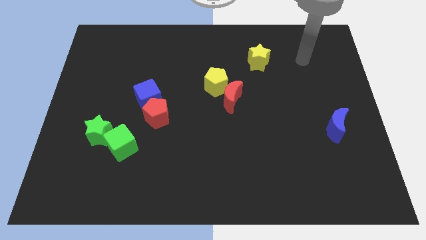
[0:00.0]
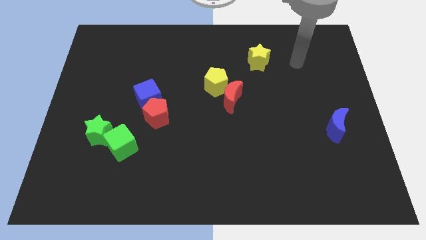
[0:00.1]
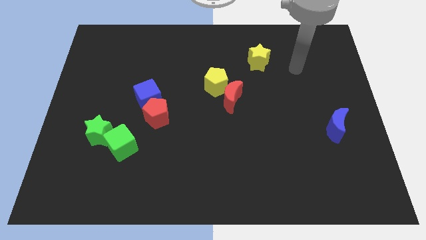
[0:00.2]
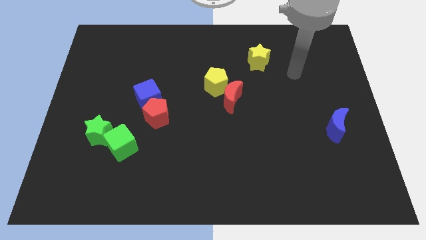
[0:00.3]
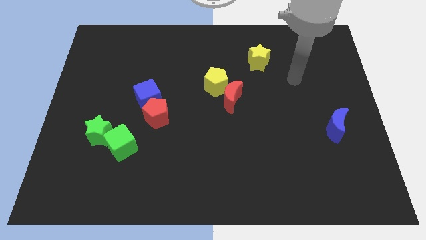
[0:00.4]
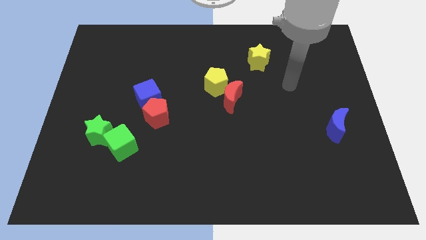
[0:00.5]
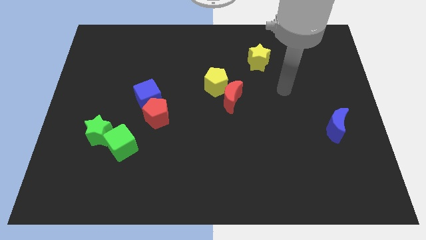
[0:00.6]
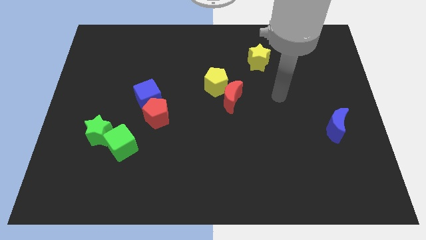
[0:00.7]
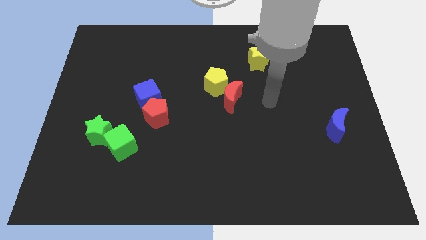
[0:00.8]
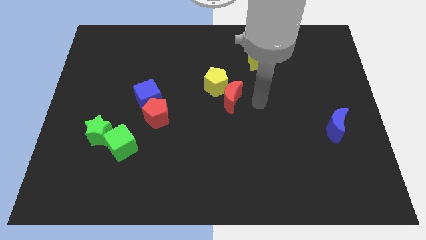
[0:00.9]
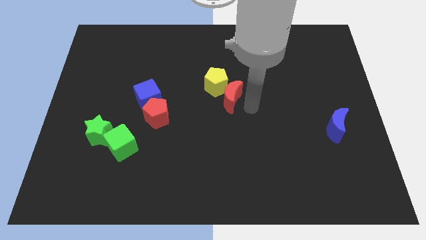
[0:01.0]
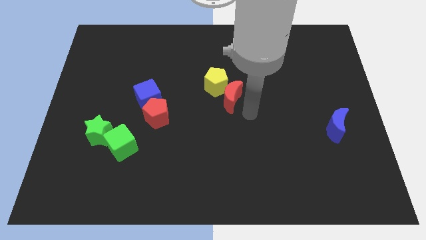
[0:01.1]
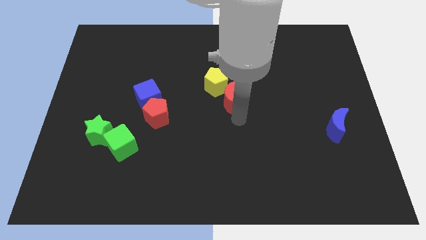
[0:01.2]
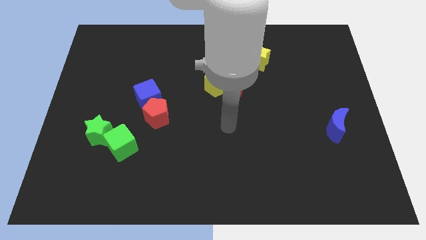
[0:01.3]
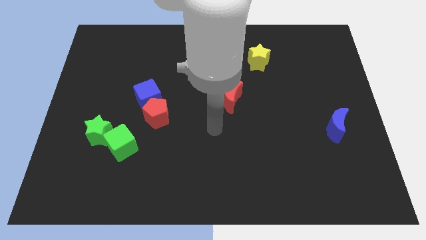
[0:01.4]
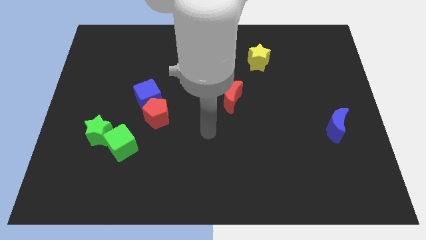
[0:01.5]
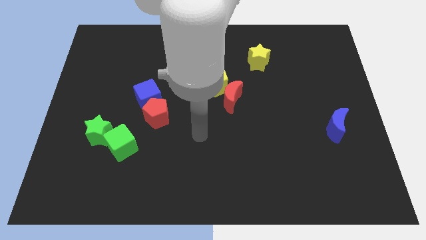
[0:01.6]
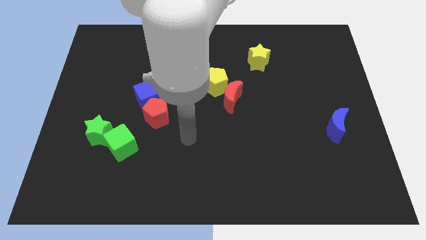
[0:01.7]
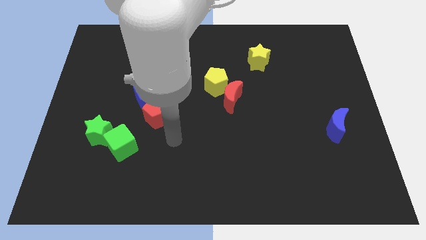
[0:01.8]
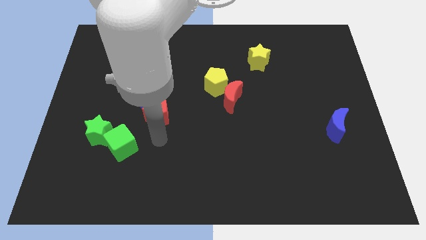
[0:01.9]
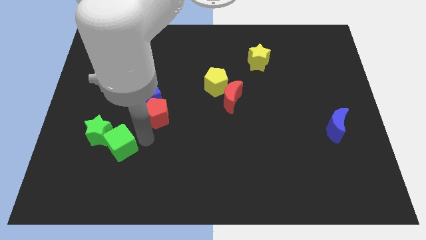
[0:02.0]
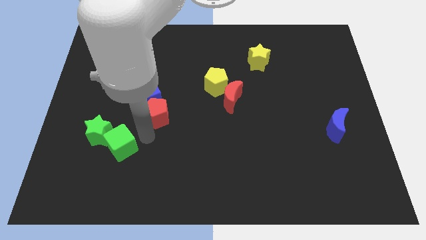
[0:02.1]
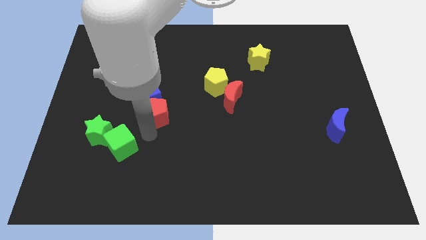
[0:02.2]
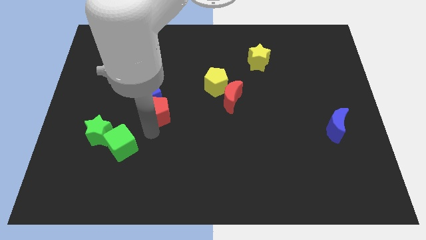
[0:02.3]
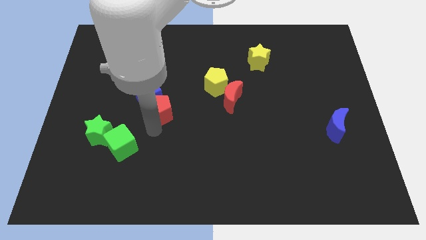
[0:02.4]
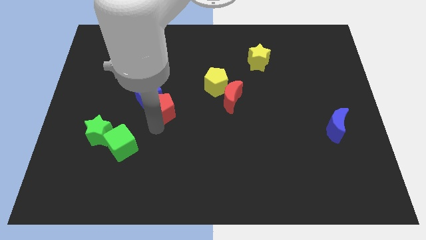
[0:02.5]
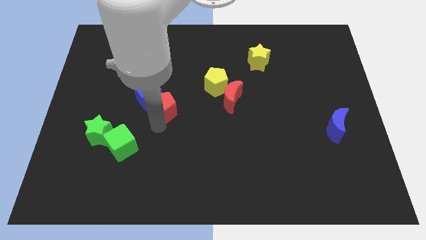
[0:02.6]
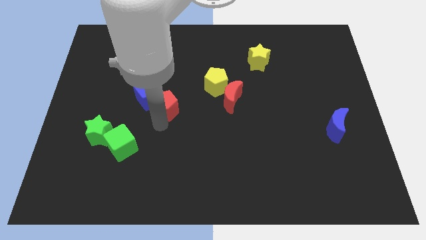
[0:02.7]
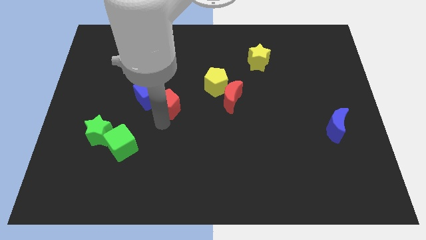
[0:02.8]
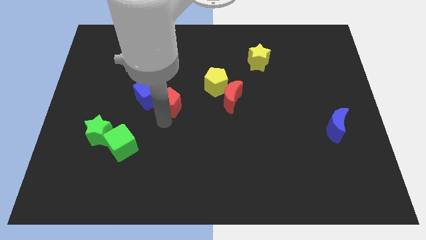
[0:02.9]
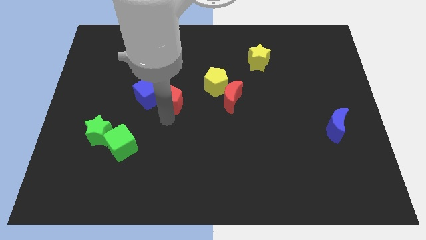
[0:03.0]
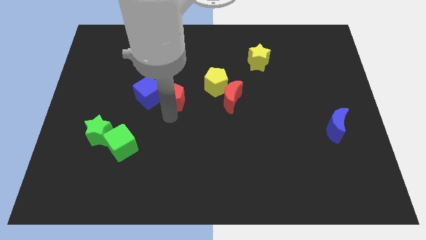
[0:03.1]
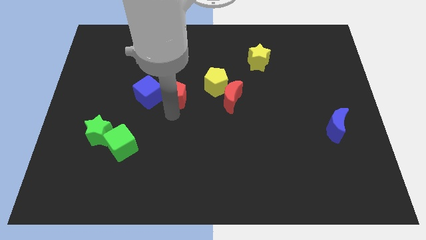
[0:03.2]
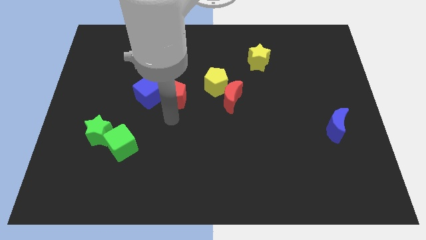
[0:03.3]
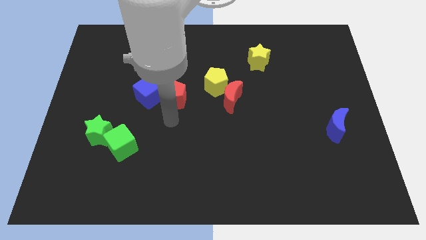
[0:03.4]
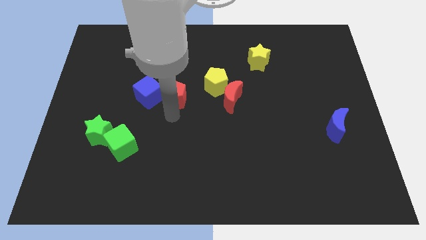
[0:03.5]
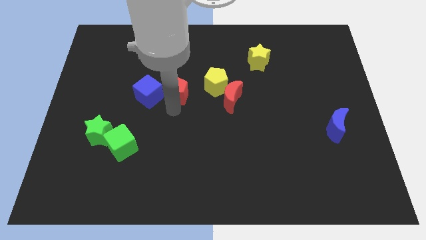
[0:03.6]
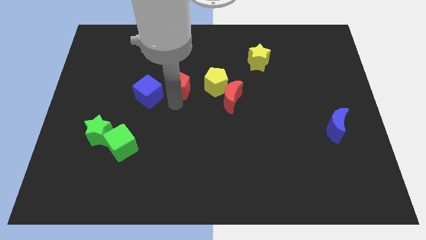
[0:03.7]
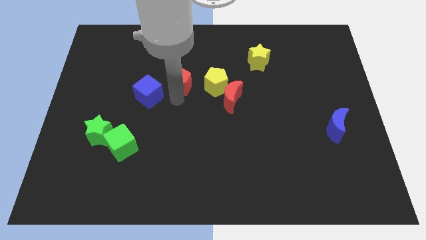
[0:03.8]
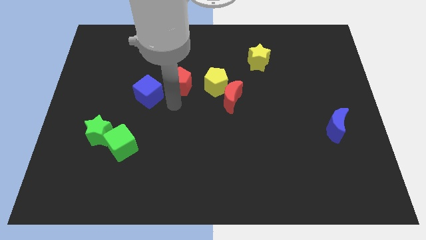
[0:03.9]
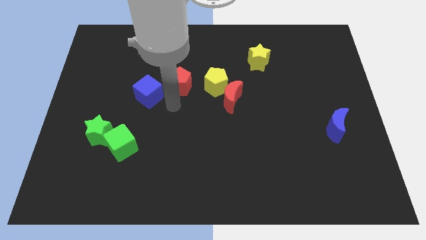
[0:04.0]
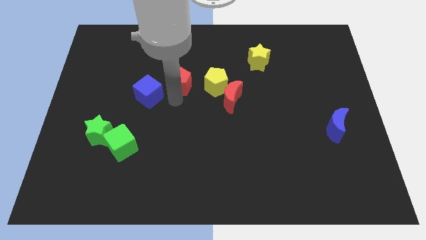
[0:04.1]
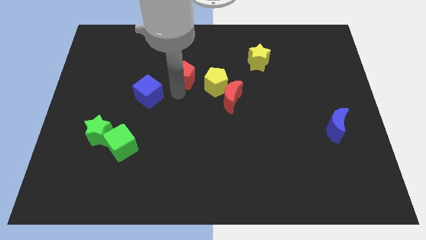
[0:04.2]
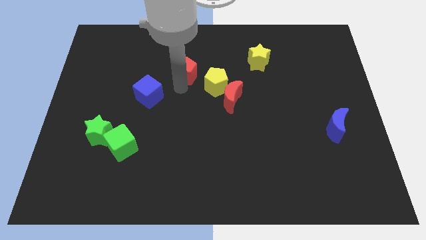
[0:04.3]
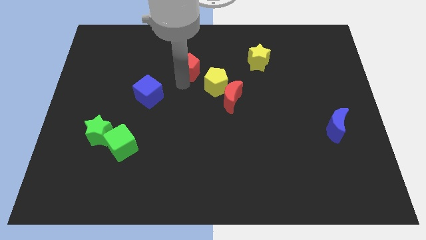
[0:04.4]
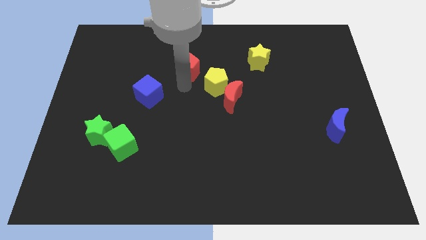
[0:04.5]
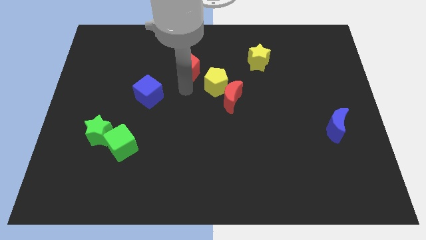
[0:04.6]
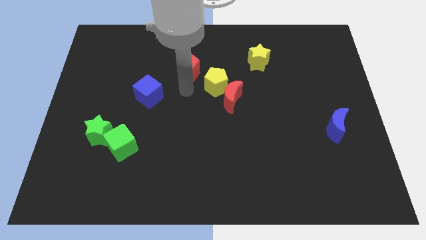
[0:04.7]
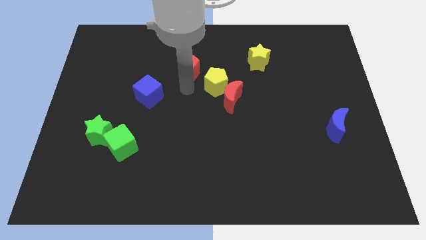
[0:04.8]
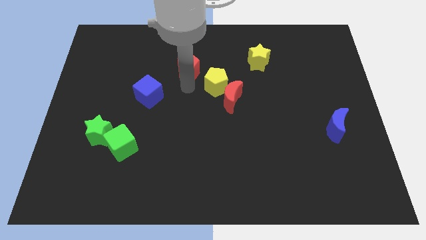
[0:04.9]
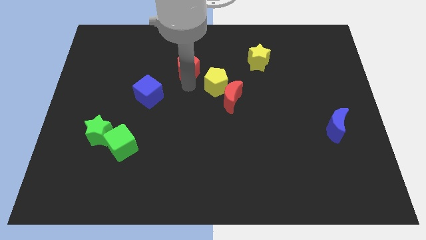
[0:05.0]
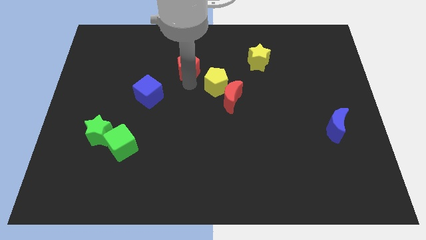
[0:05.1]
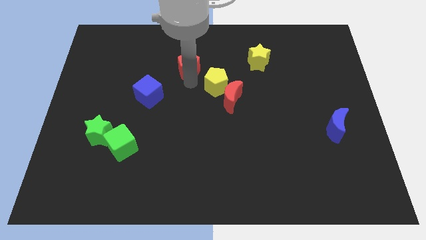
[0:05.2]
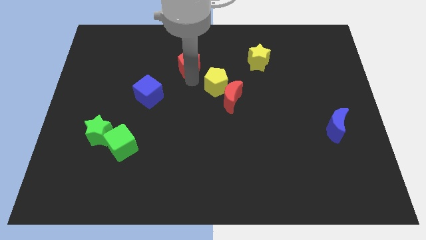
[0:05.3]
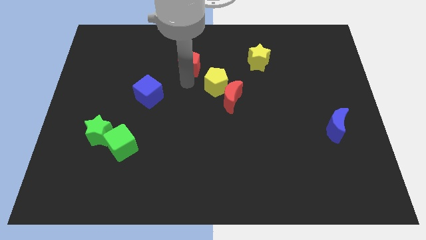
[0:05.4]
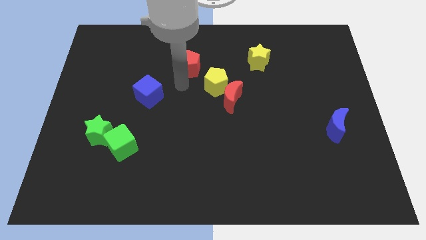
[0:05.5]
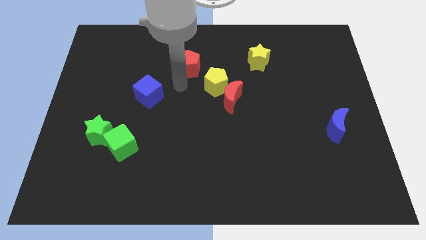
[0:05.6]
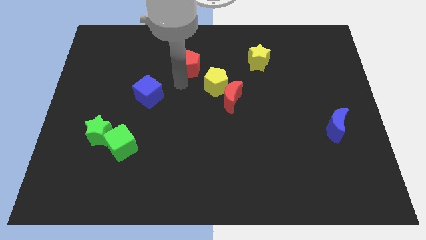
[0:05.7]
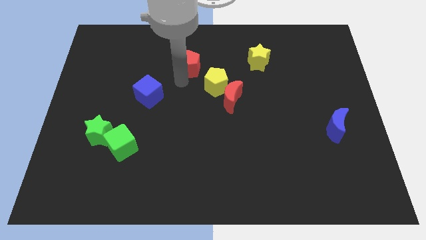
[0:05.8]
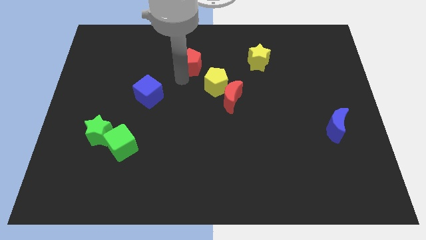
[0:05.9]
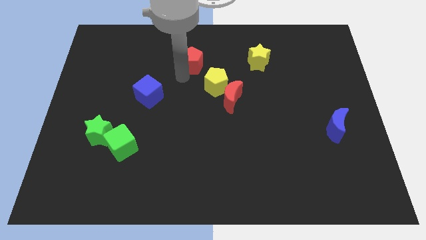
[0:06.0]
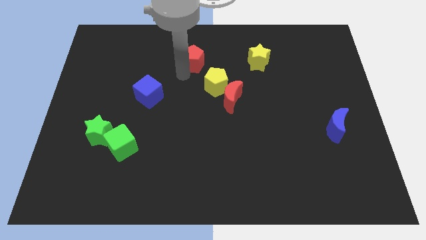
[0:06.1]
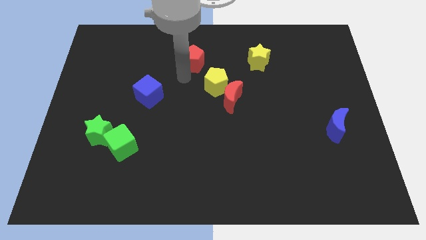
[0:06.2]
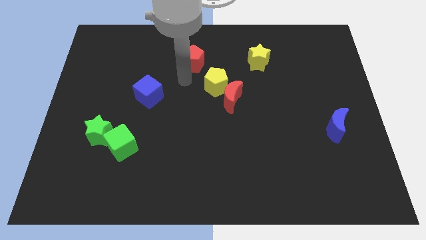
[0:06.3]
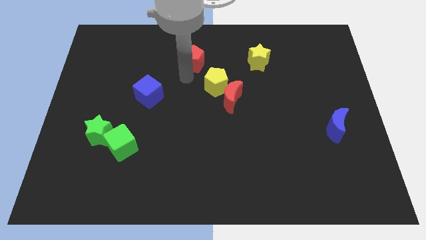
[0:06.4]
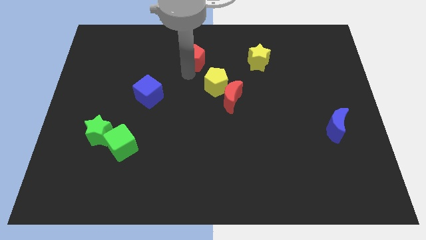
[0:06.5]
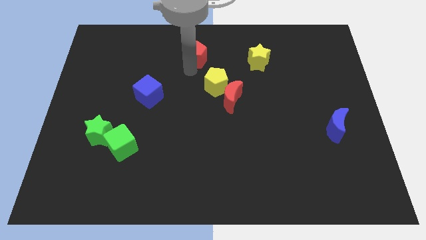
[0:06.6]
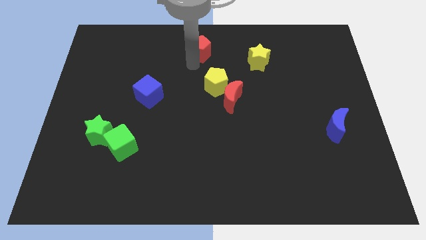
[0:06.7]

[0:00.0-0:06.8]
move the red pentagon to the towards your base
